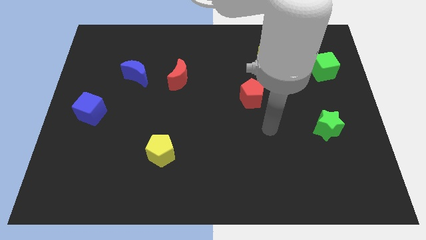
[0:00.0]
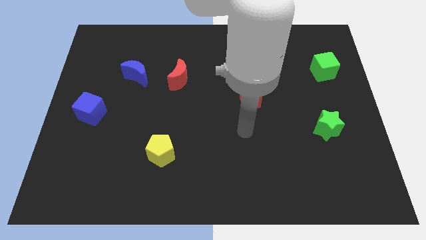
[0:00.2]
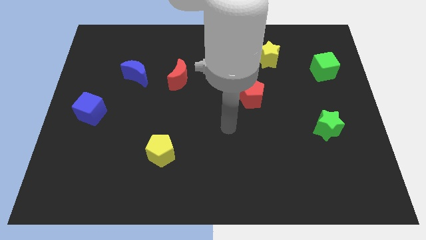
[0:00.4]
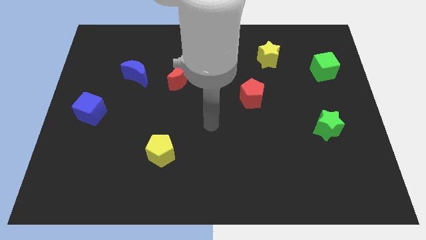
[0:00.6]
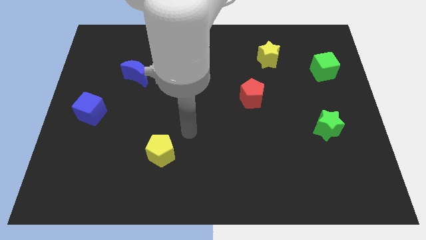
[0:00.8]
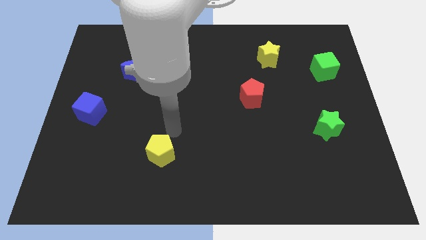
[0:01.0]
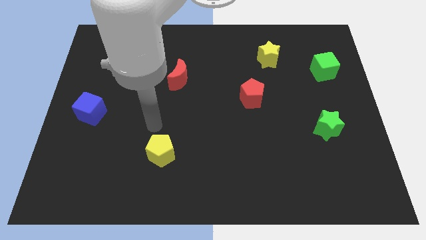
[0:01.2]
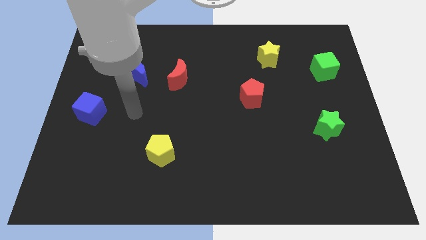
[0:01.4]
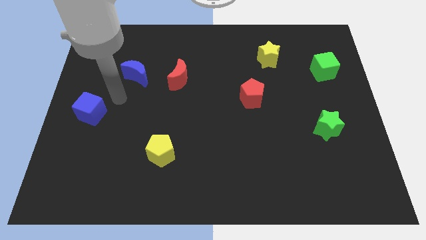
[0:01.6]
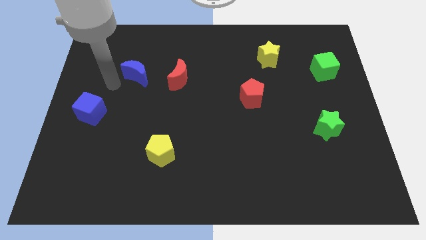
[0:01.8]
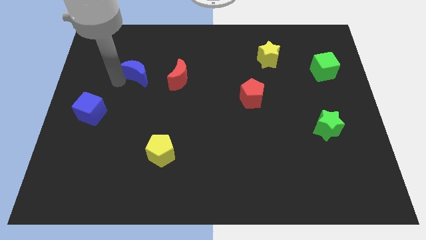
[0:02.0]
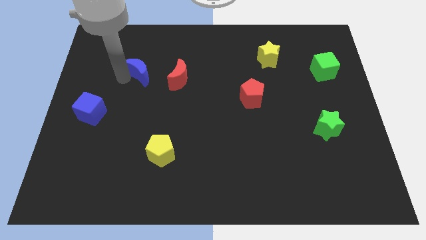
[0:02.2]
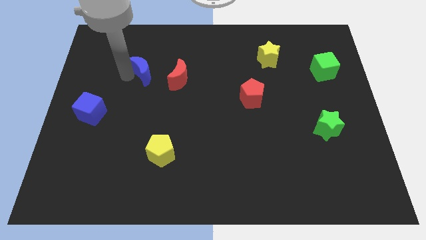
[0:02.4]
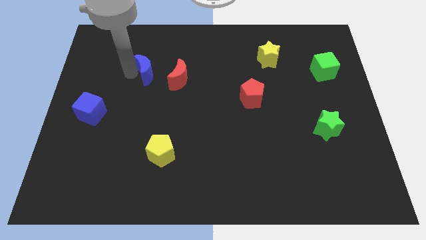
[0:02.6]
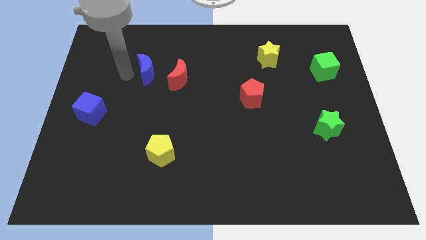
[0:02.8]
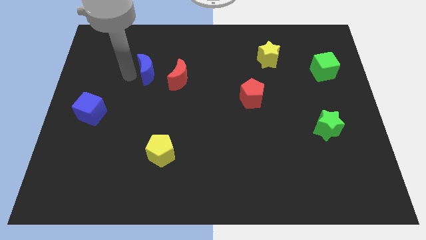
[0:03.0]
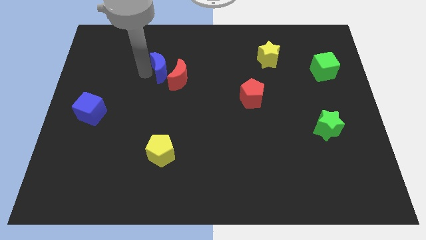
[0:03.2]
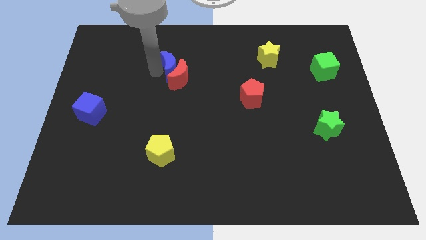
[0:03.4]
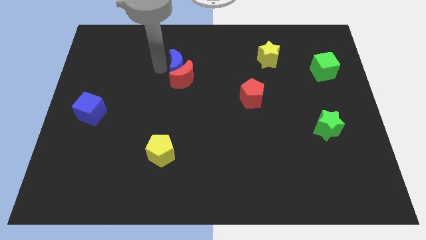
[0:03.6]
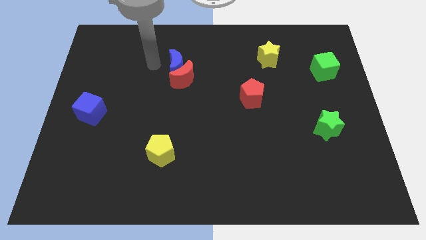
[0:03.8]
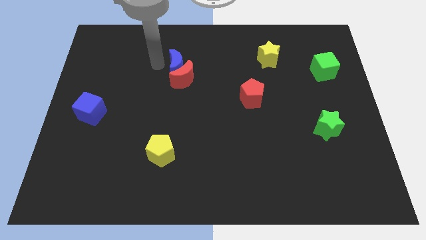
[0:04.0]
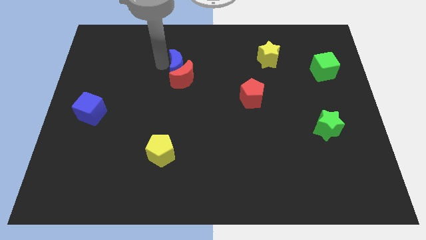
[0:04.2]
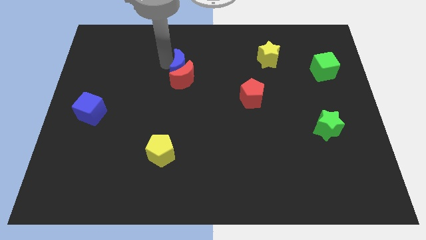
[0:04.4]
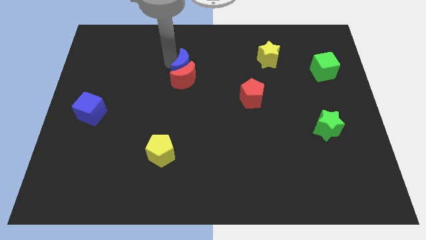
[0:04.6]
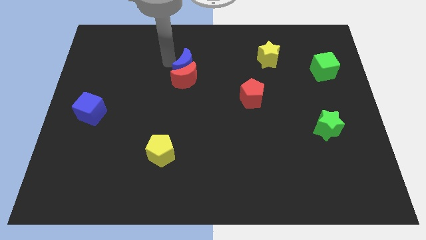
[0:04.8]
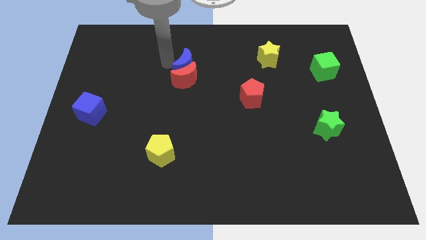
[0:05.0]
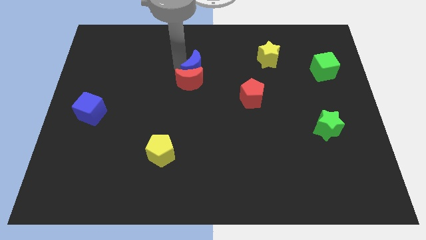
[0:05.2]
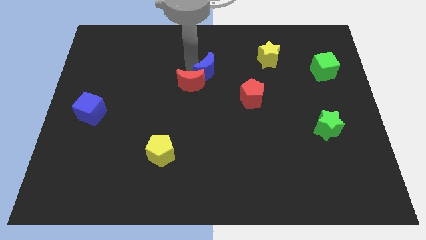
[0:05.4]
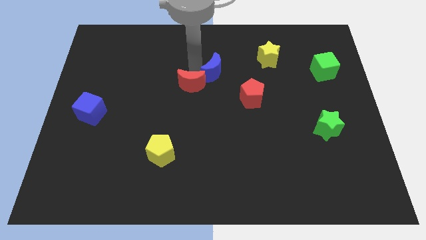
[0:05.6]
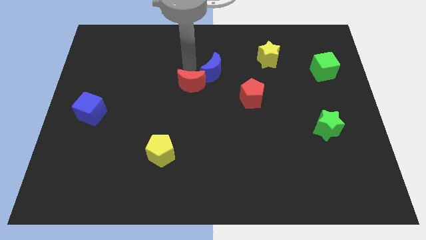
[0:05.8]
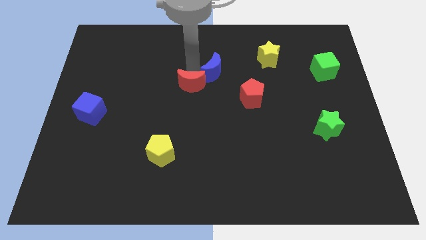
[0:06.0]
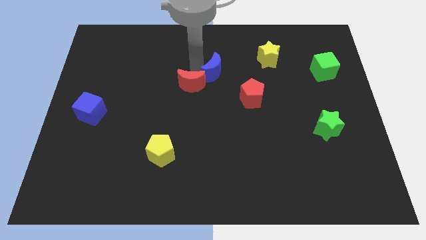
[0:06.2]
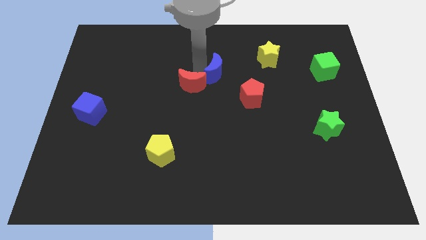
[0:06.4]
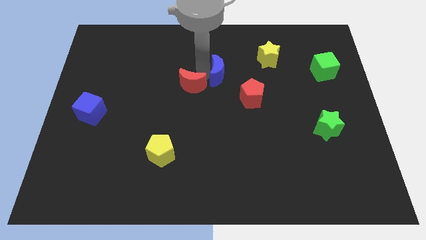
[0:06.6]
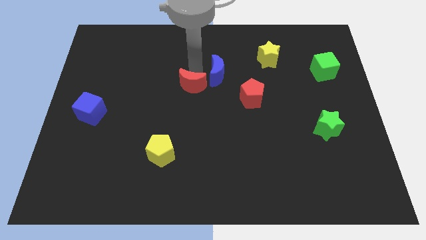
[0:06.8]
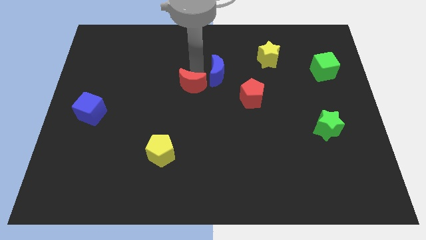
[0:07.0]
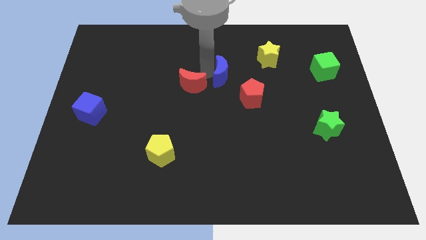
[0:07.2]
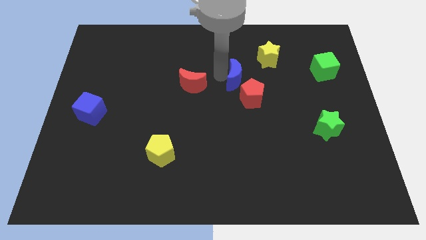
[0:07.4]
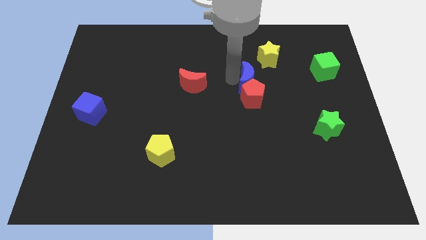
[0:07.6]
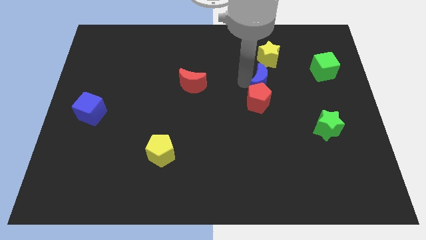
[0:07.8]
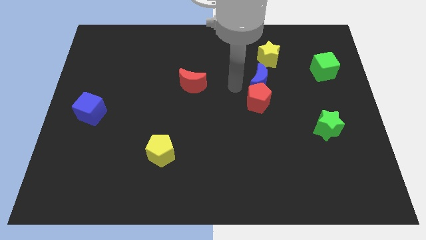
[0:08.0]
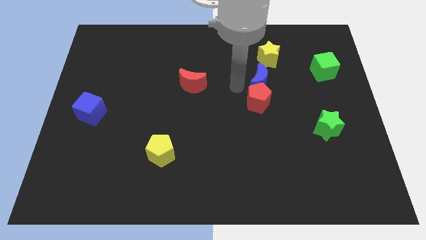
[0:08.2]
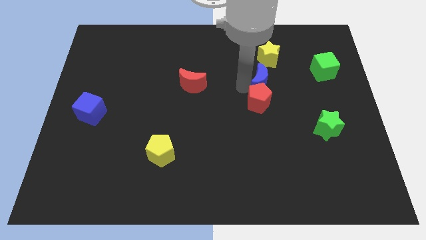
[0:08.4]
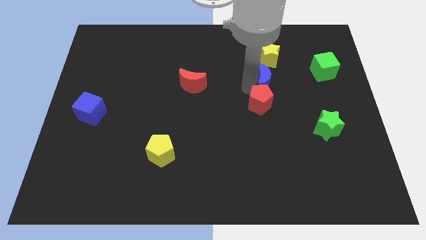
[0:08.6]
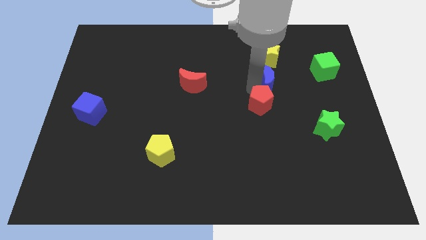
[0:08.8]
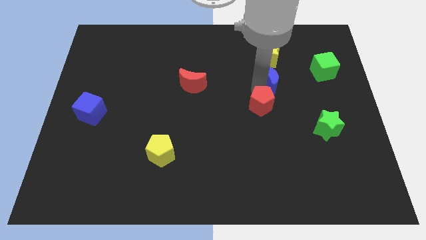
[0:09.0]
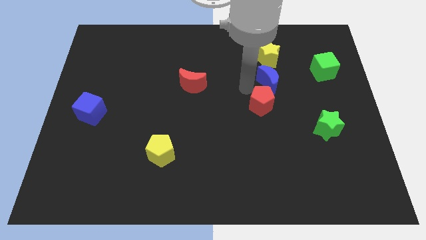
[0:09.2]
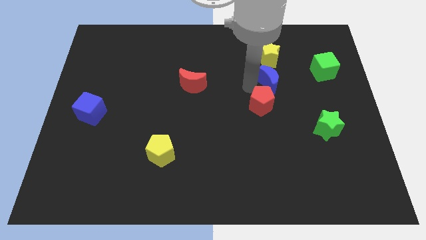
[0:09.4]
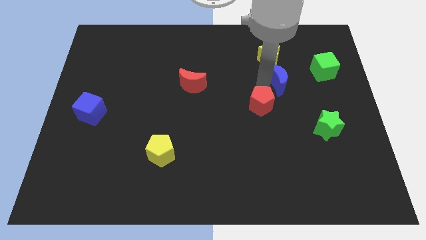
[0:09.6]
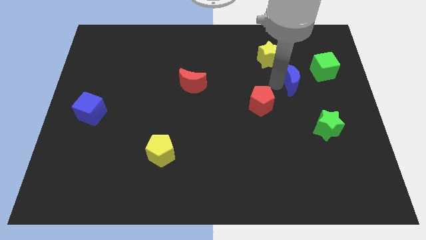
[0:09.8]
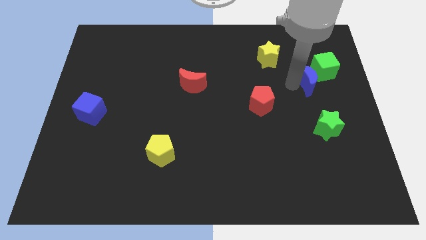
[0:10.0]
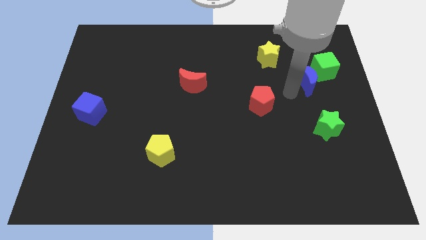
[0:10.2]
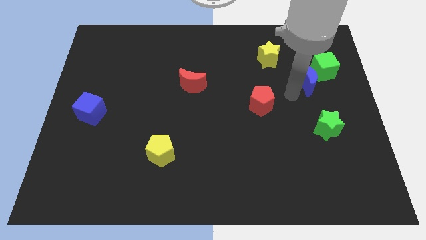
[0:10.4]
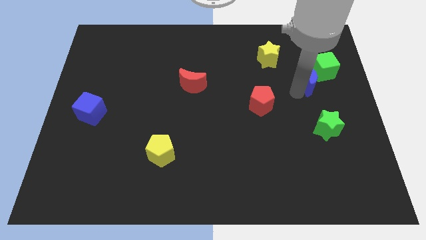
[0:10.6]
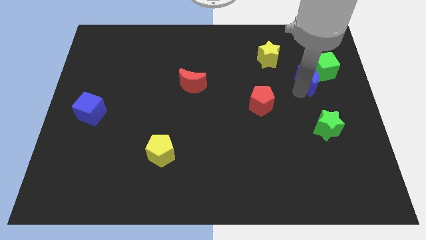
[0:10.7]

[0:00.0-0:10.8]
slide the blue moon towards the green cube

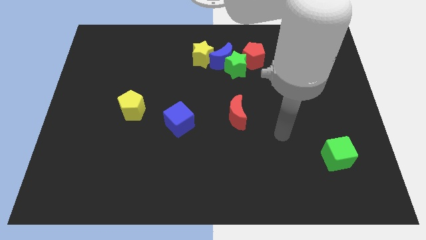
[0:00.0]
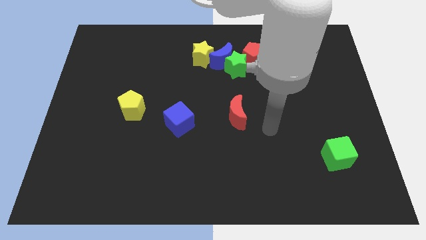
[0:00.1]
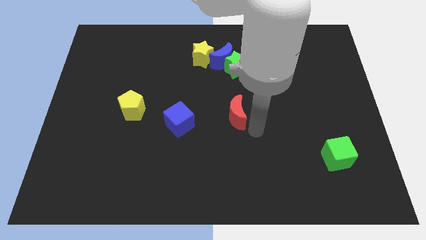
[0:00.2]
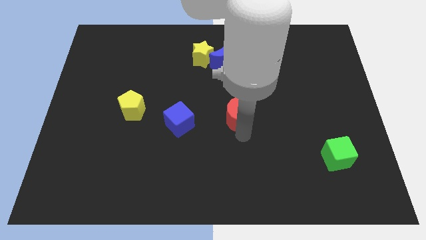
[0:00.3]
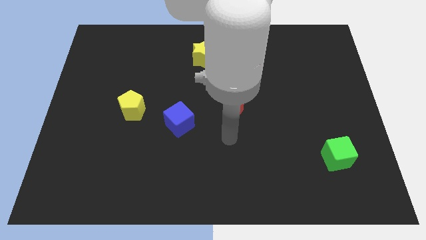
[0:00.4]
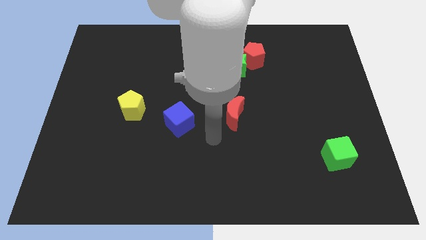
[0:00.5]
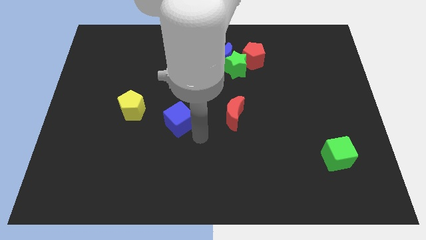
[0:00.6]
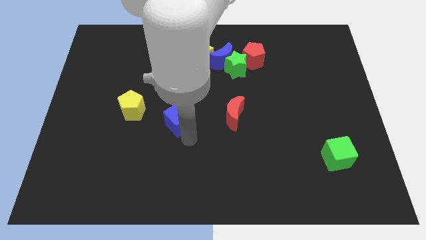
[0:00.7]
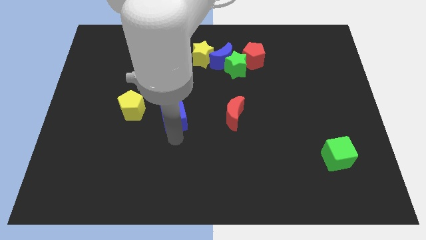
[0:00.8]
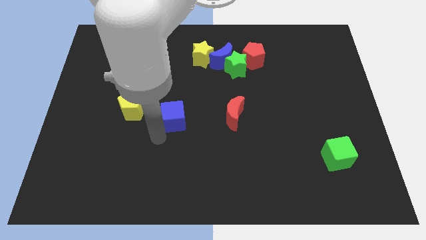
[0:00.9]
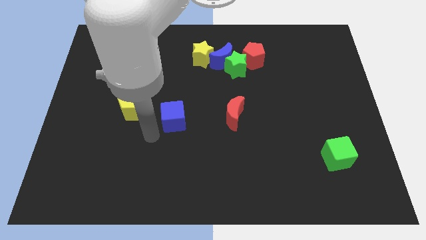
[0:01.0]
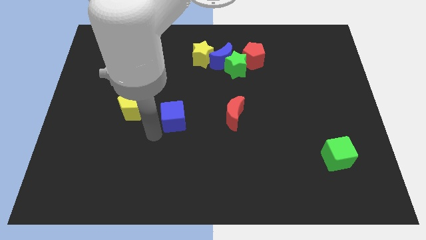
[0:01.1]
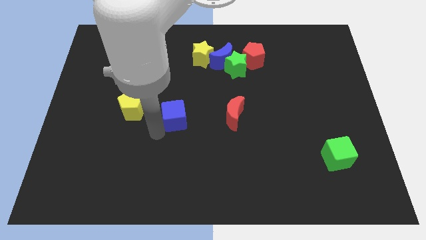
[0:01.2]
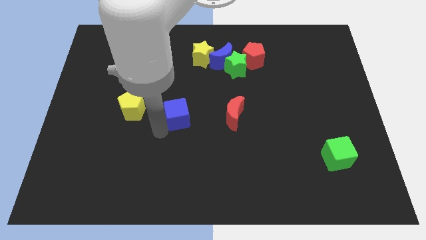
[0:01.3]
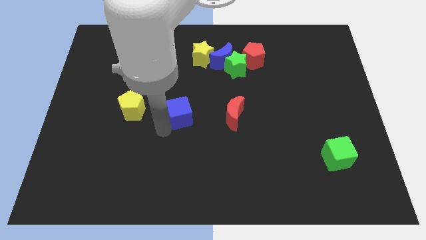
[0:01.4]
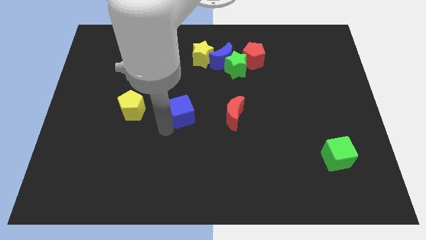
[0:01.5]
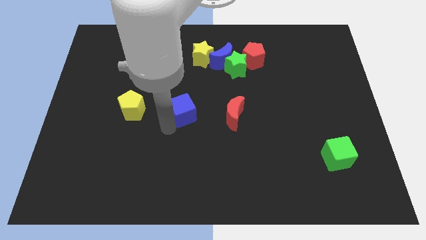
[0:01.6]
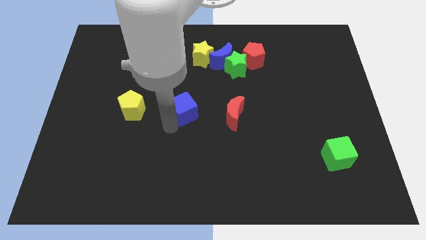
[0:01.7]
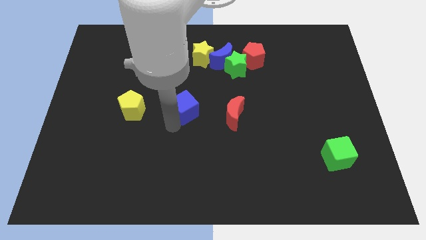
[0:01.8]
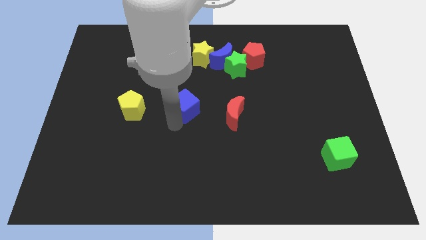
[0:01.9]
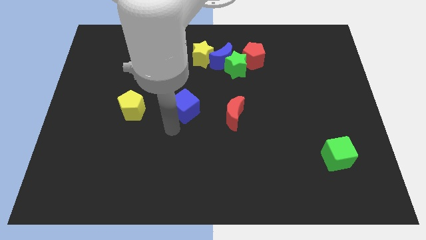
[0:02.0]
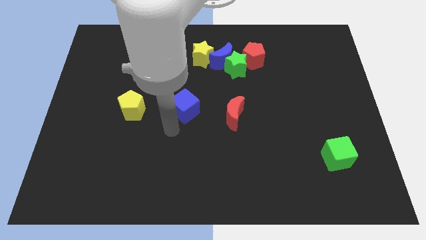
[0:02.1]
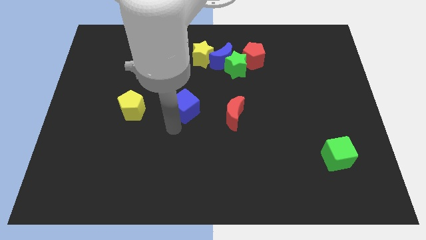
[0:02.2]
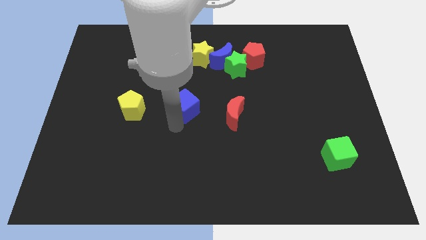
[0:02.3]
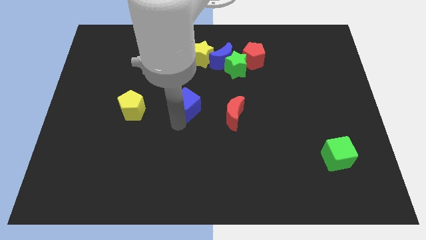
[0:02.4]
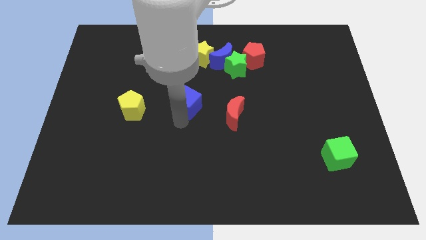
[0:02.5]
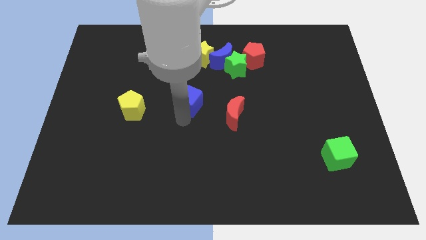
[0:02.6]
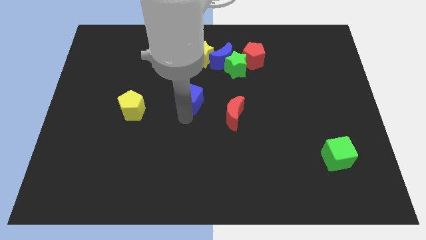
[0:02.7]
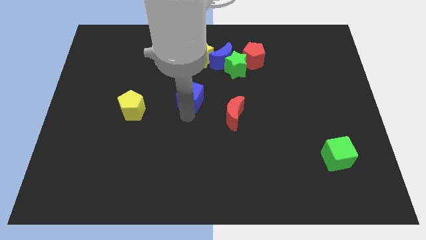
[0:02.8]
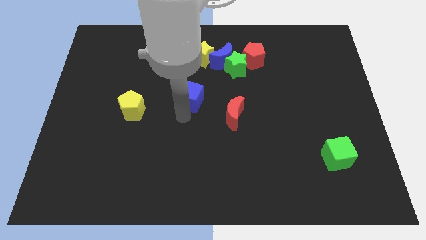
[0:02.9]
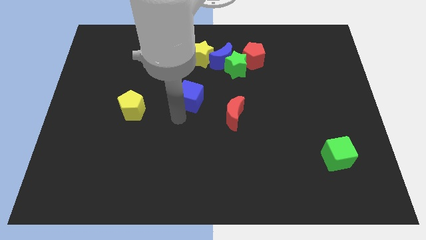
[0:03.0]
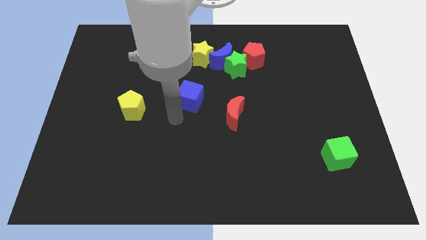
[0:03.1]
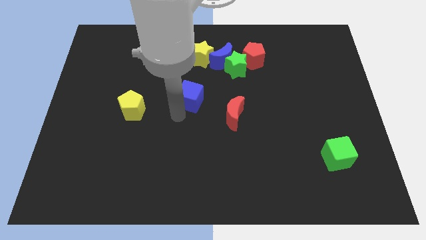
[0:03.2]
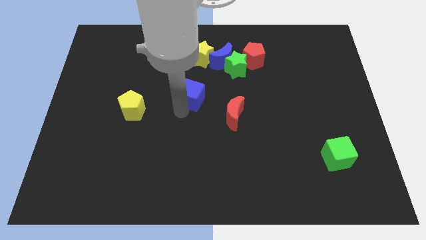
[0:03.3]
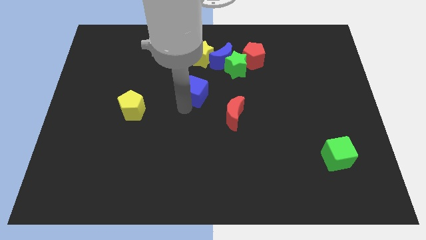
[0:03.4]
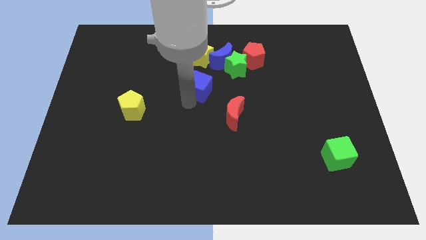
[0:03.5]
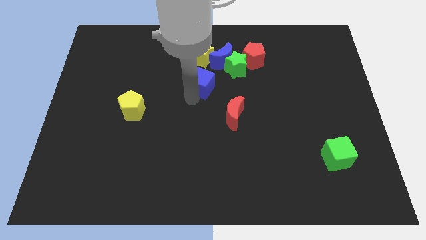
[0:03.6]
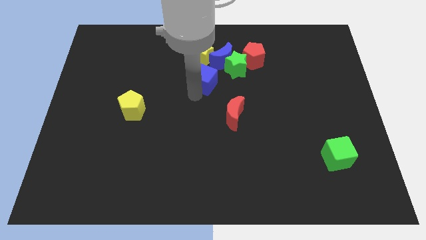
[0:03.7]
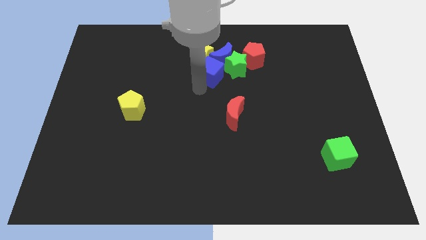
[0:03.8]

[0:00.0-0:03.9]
push the blue cube towards the blue moon
